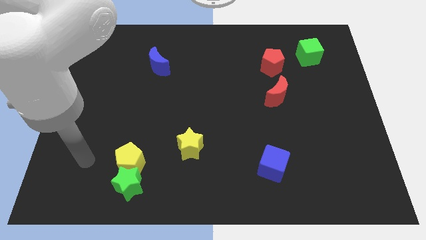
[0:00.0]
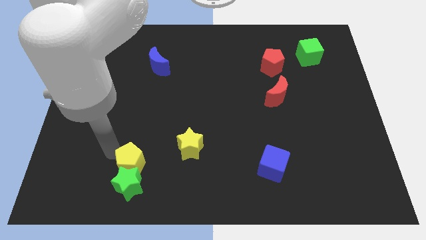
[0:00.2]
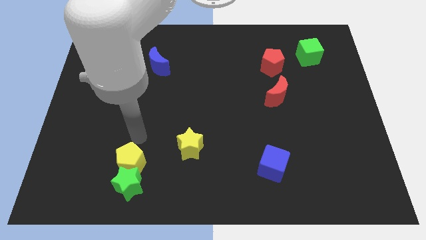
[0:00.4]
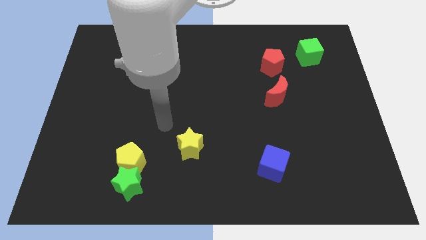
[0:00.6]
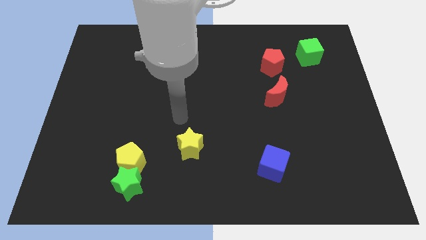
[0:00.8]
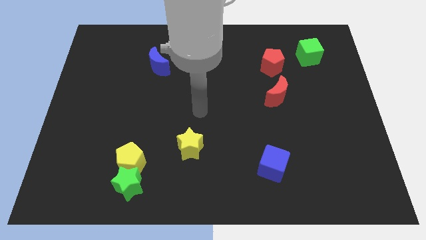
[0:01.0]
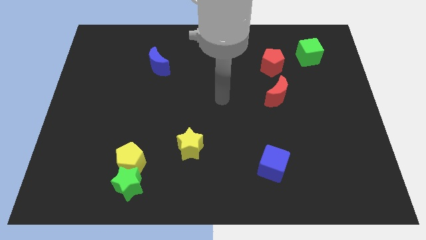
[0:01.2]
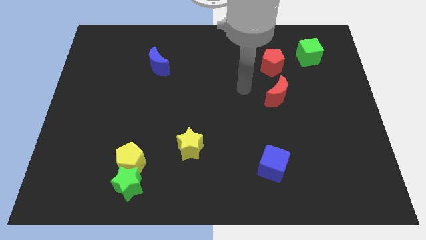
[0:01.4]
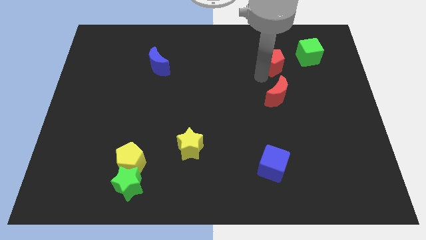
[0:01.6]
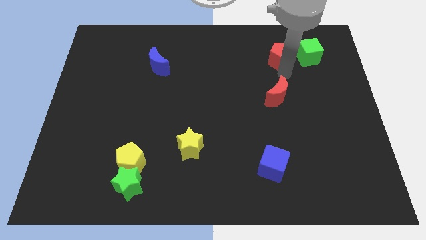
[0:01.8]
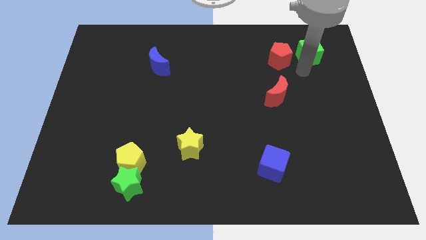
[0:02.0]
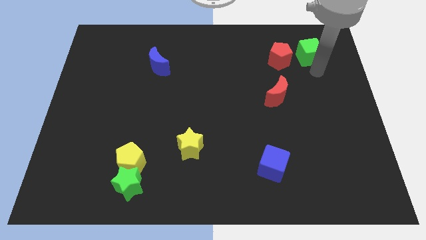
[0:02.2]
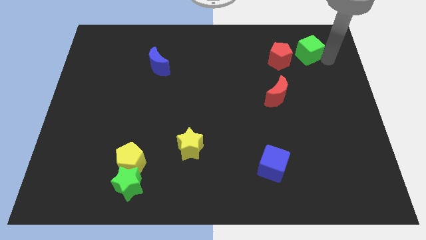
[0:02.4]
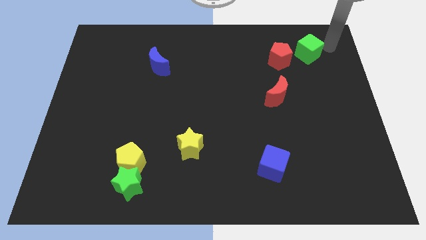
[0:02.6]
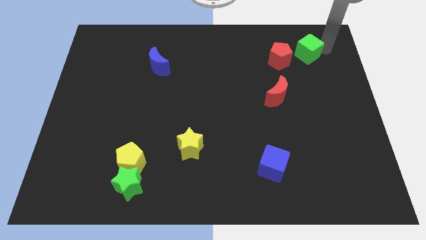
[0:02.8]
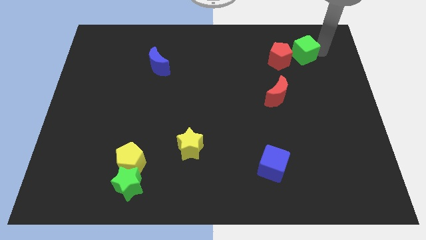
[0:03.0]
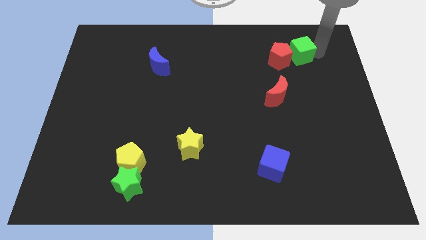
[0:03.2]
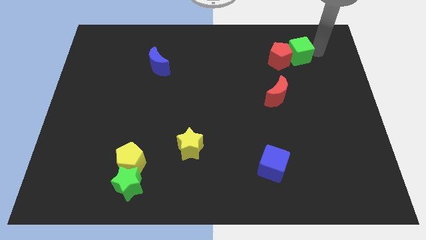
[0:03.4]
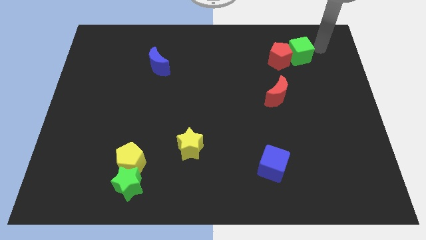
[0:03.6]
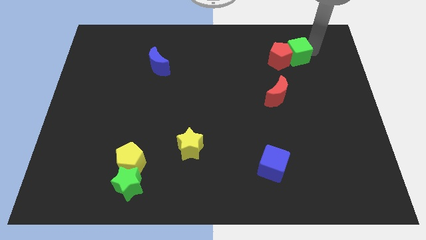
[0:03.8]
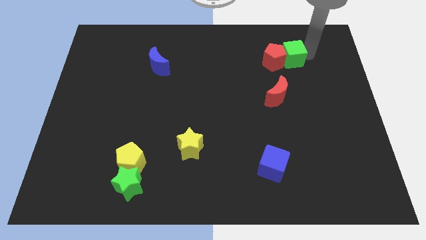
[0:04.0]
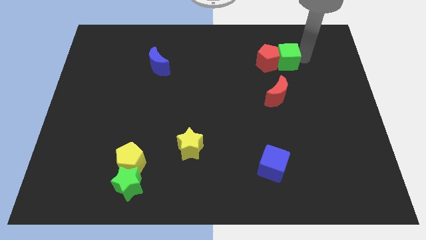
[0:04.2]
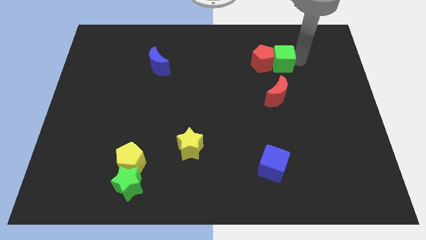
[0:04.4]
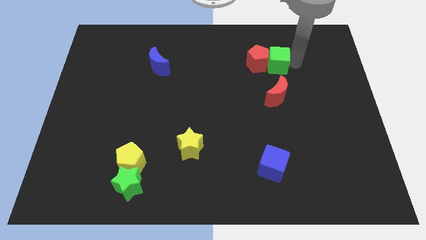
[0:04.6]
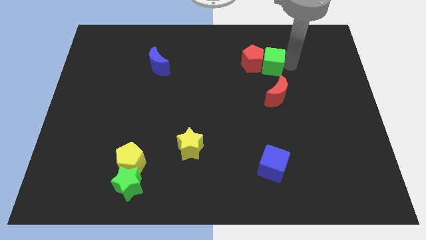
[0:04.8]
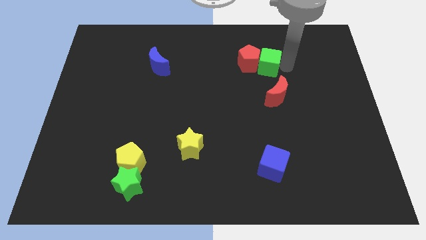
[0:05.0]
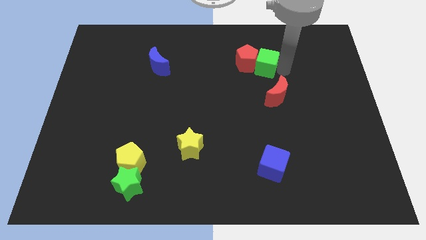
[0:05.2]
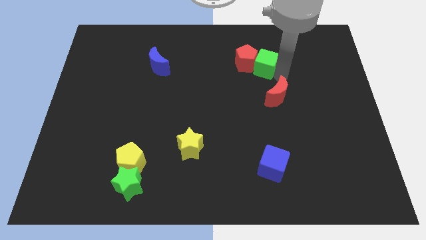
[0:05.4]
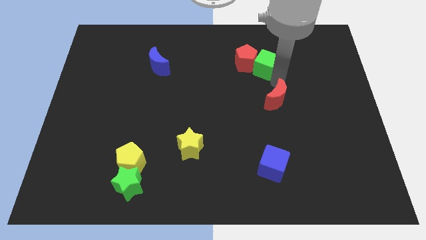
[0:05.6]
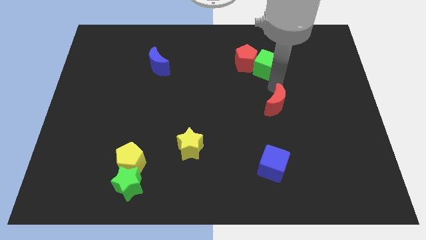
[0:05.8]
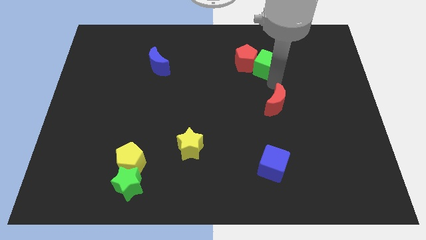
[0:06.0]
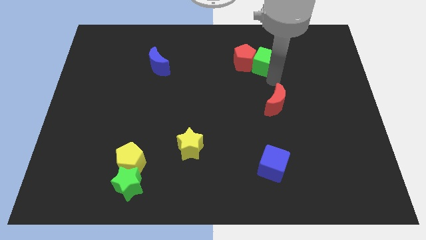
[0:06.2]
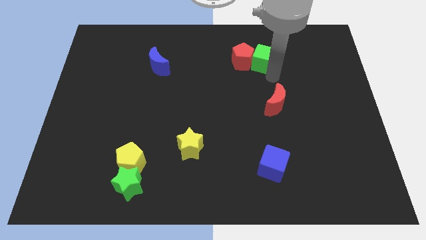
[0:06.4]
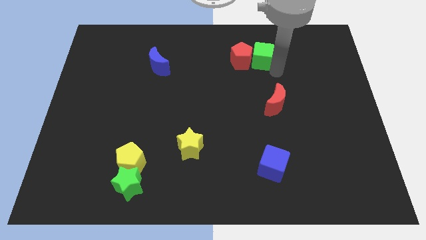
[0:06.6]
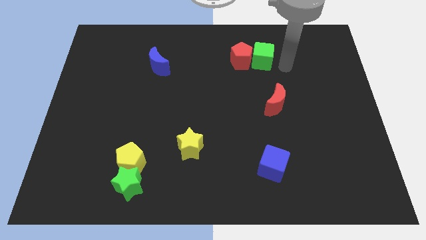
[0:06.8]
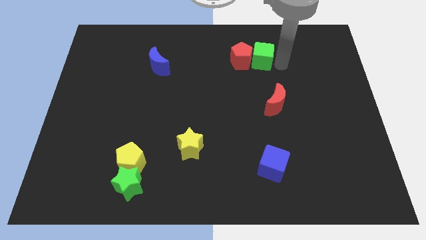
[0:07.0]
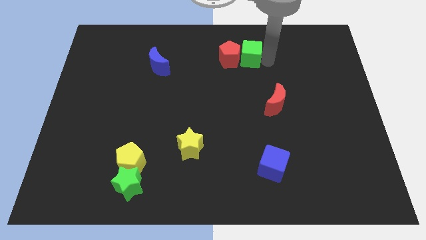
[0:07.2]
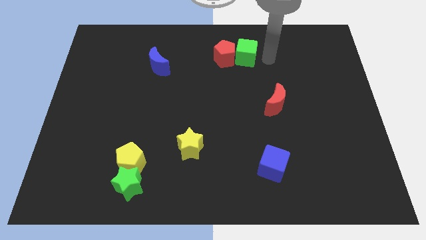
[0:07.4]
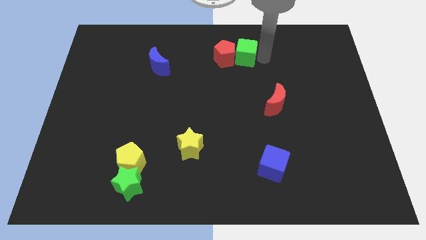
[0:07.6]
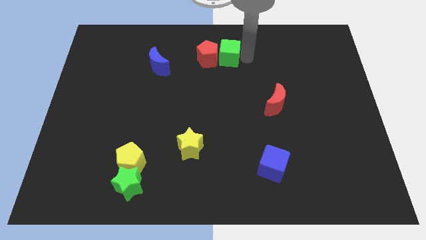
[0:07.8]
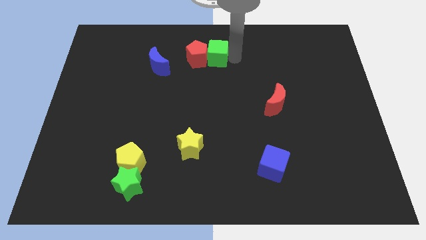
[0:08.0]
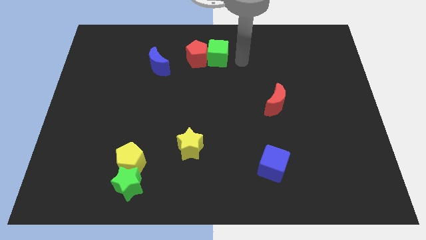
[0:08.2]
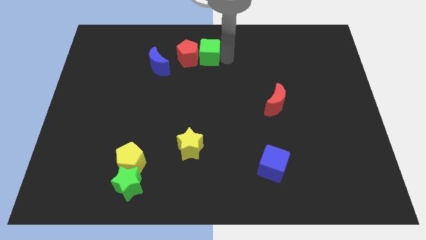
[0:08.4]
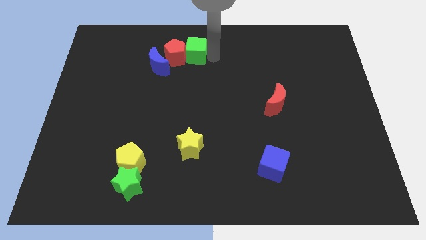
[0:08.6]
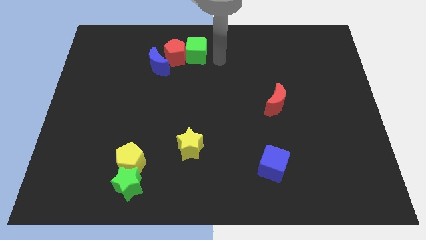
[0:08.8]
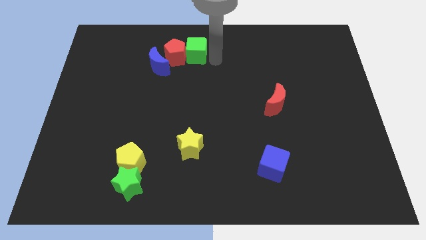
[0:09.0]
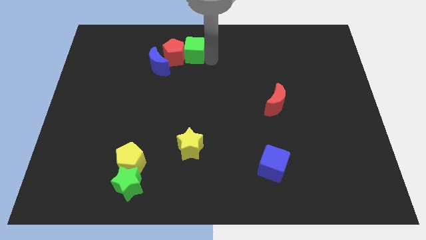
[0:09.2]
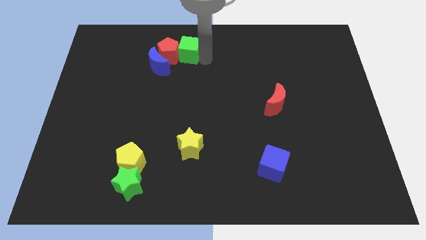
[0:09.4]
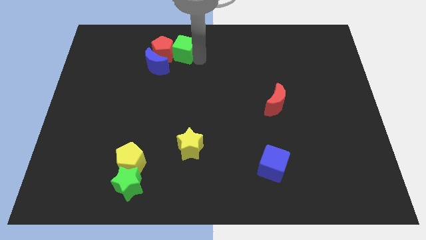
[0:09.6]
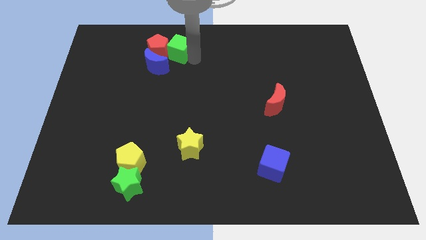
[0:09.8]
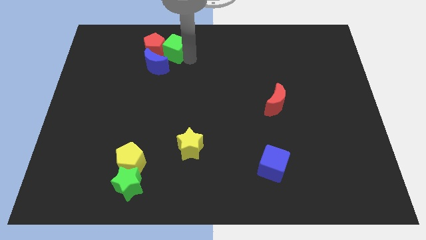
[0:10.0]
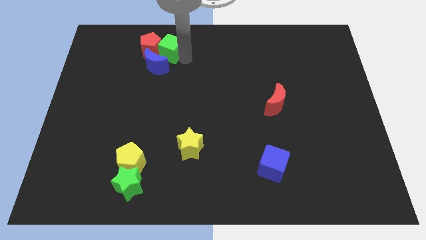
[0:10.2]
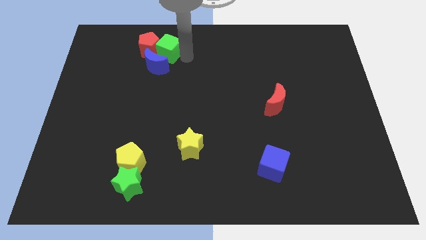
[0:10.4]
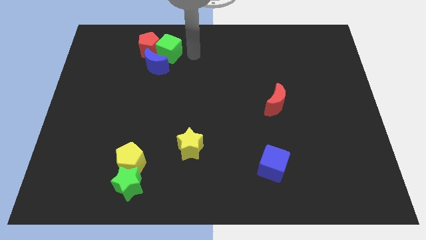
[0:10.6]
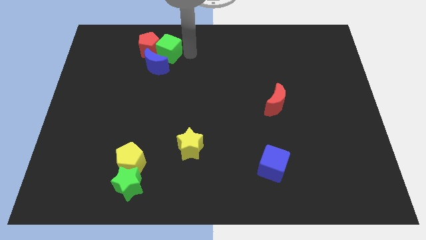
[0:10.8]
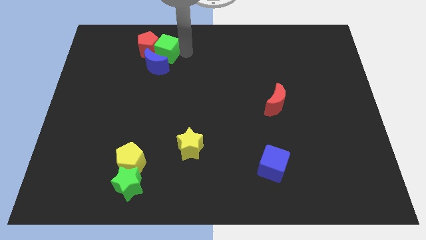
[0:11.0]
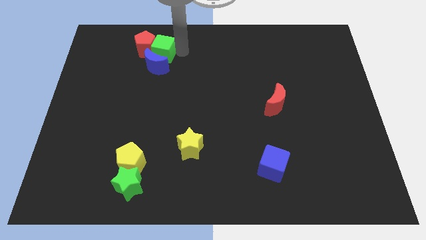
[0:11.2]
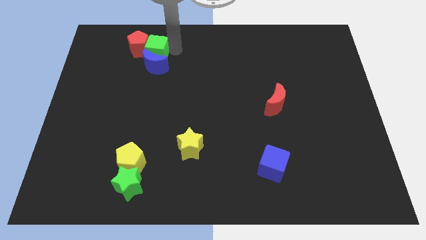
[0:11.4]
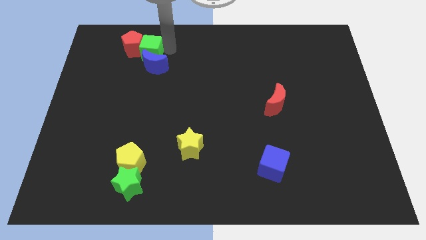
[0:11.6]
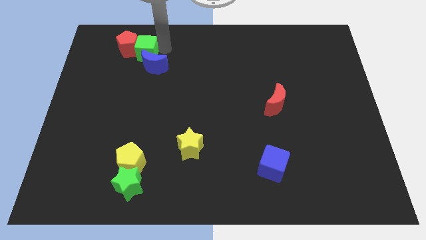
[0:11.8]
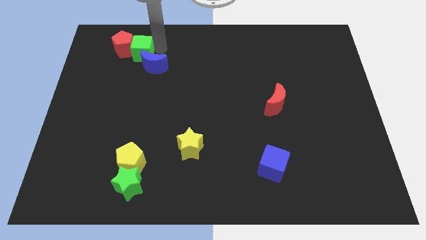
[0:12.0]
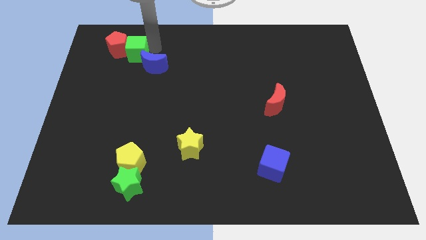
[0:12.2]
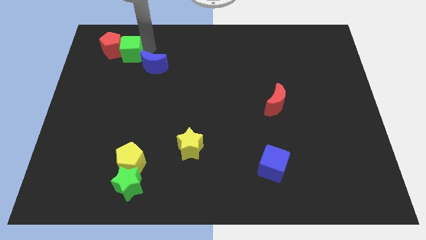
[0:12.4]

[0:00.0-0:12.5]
put the green cube left of the blue moon

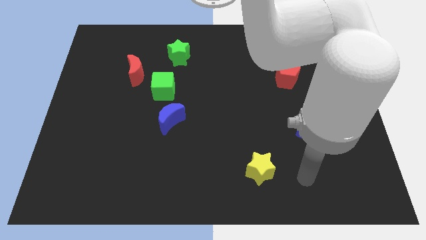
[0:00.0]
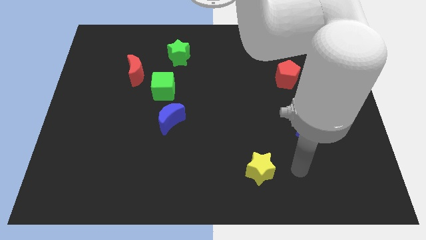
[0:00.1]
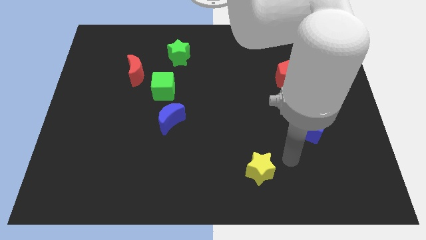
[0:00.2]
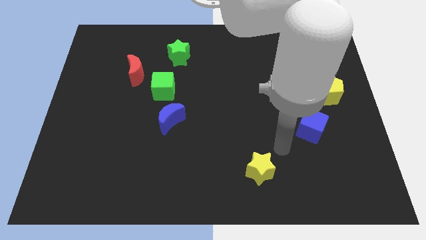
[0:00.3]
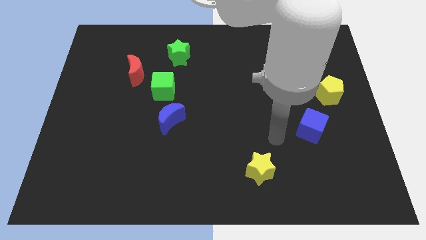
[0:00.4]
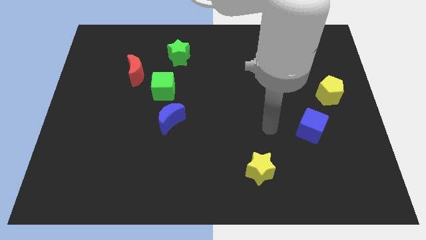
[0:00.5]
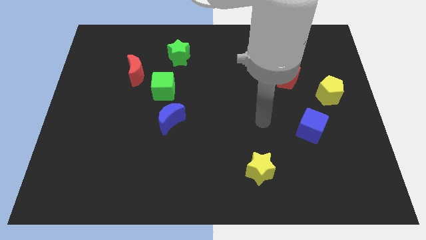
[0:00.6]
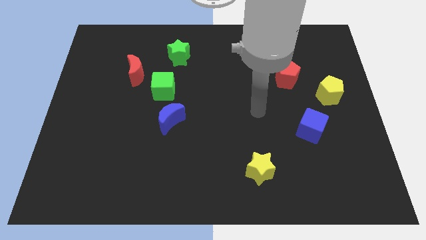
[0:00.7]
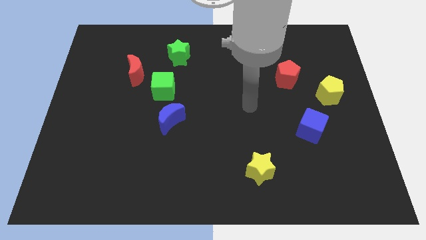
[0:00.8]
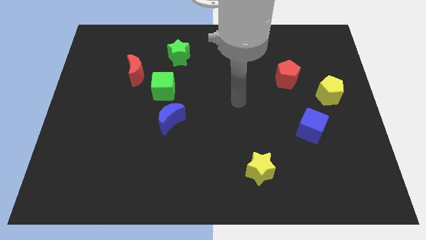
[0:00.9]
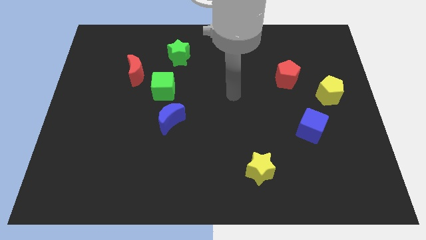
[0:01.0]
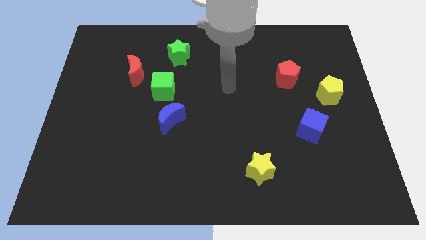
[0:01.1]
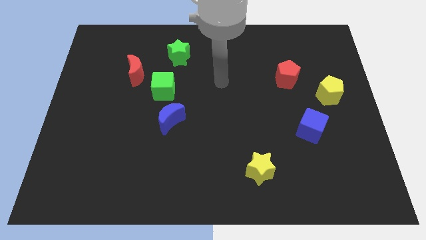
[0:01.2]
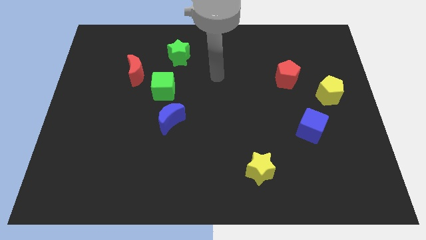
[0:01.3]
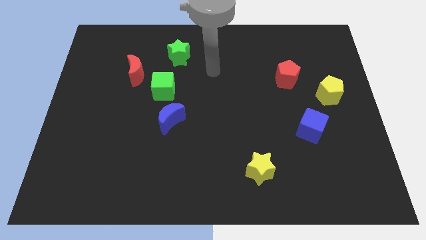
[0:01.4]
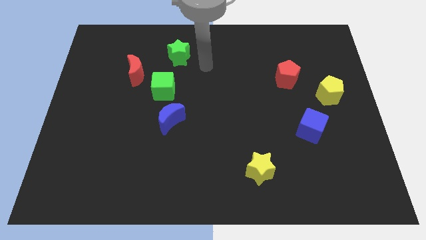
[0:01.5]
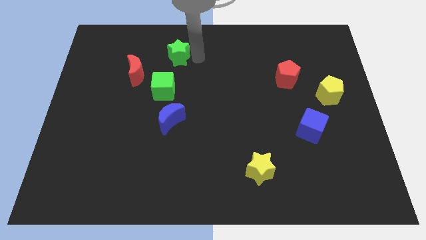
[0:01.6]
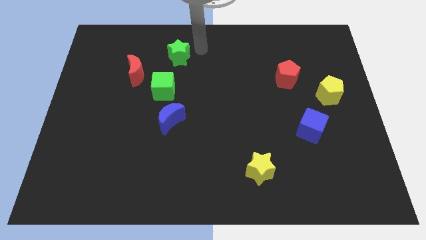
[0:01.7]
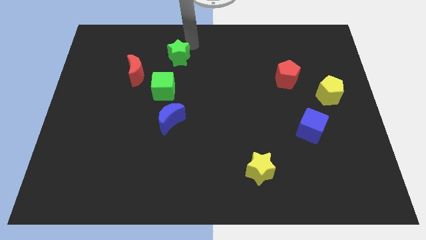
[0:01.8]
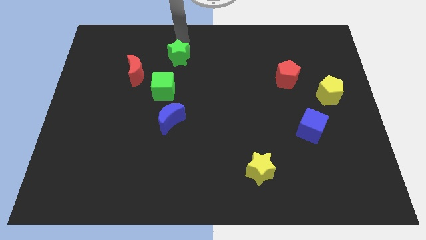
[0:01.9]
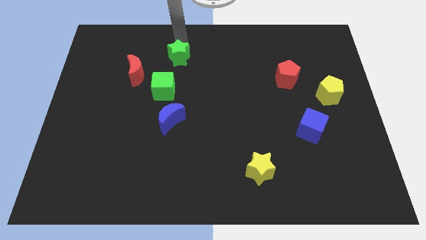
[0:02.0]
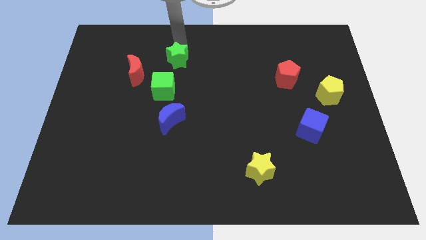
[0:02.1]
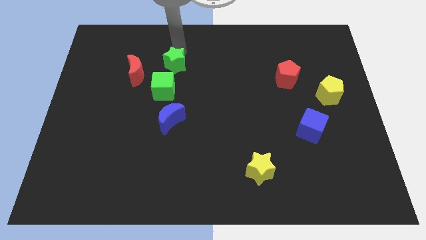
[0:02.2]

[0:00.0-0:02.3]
push the green star to the right side of the red moon

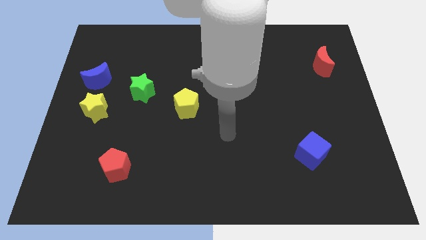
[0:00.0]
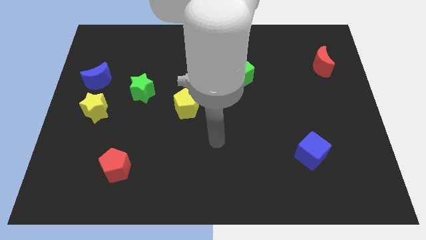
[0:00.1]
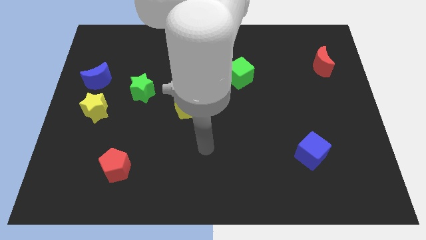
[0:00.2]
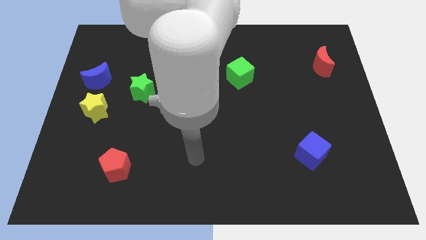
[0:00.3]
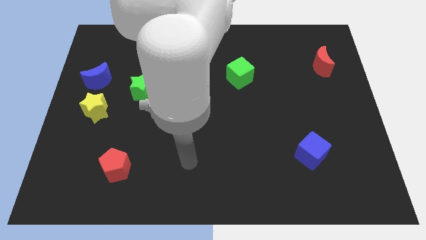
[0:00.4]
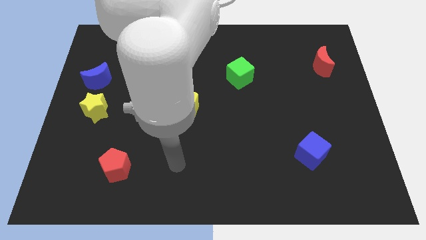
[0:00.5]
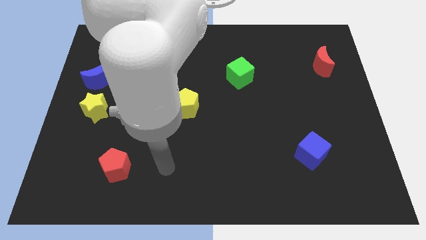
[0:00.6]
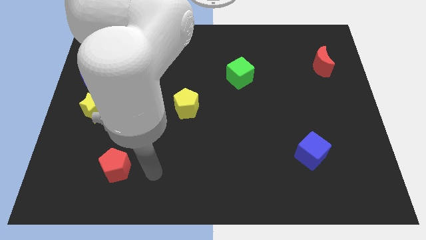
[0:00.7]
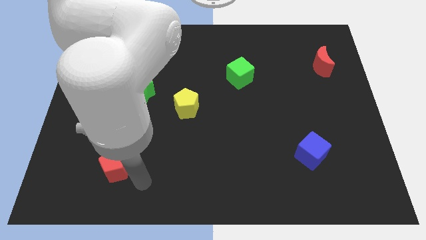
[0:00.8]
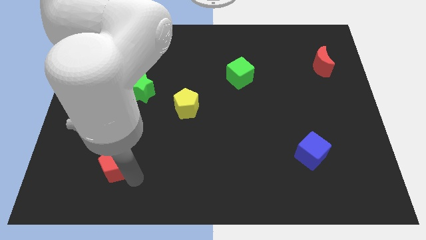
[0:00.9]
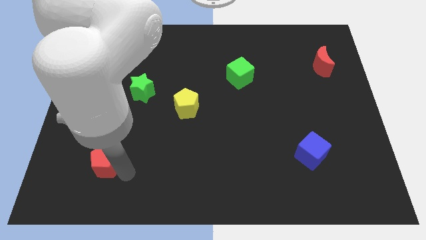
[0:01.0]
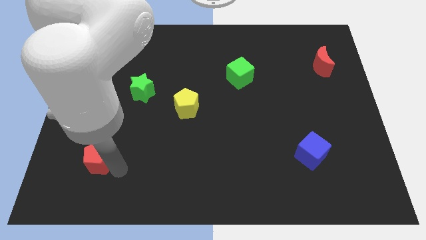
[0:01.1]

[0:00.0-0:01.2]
move the red pentagon to the bottom side of the yellow star
